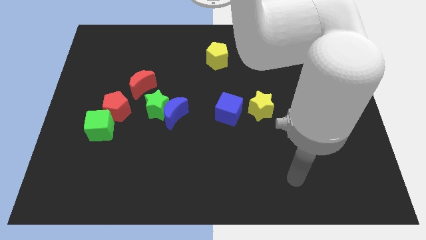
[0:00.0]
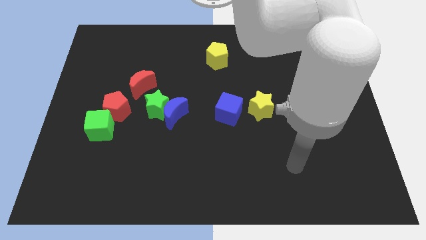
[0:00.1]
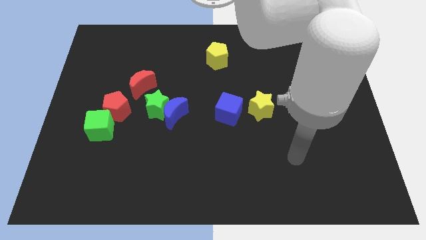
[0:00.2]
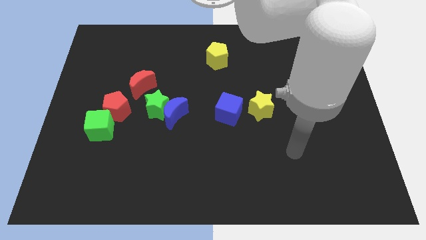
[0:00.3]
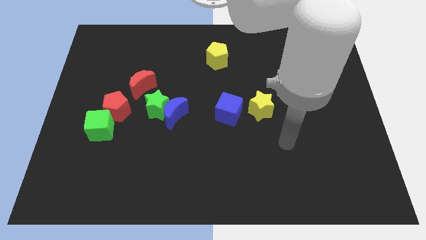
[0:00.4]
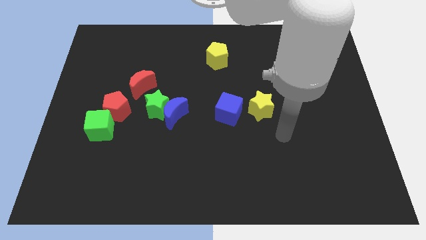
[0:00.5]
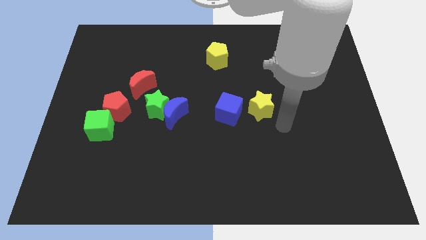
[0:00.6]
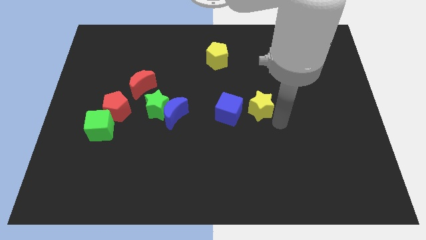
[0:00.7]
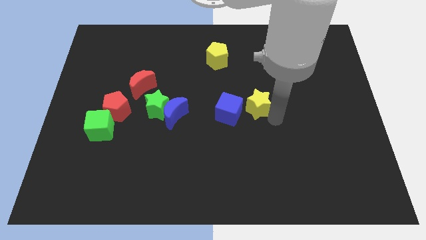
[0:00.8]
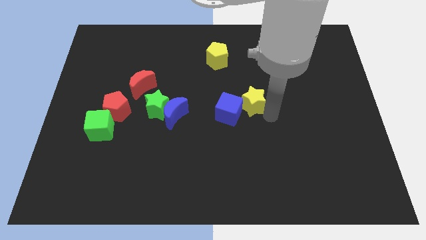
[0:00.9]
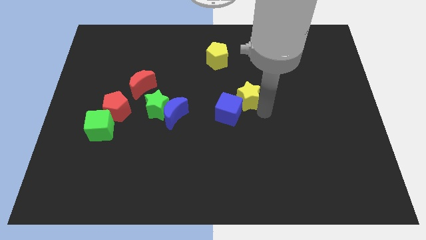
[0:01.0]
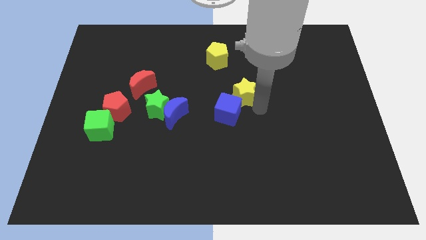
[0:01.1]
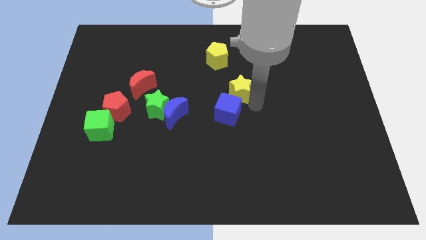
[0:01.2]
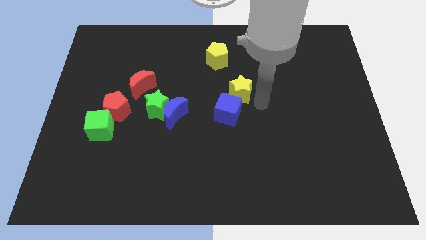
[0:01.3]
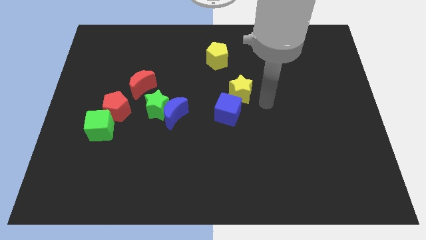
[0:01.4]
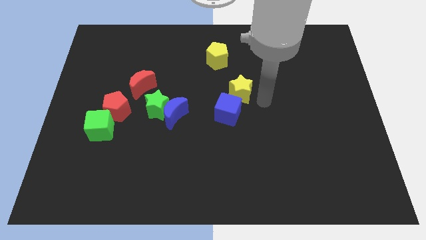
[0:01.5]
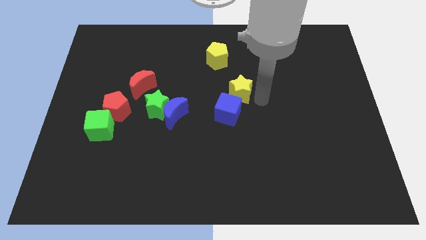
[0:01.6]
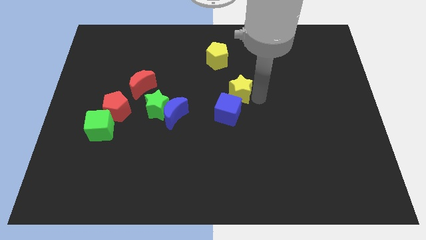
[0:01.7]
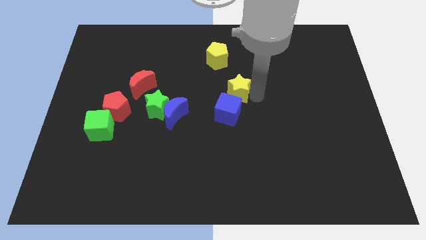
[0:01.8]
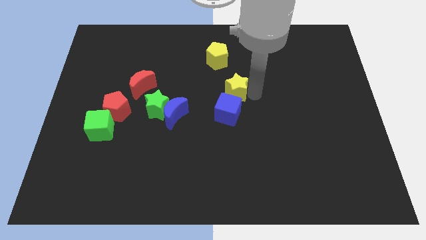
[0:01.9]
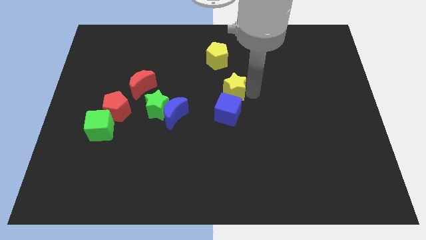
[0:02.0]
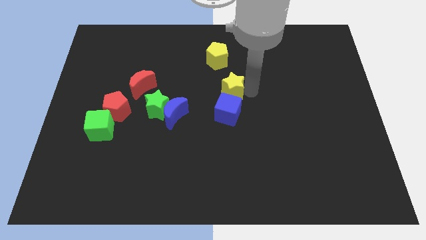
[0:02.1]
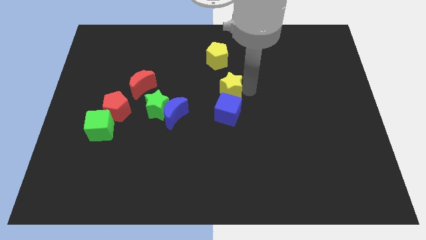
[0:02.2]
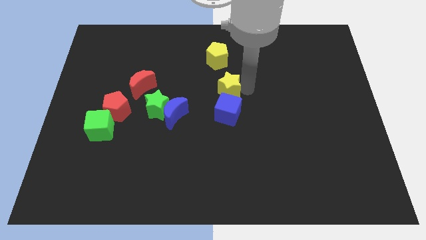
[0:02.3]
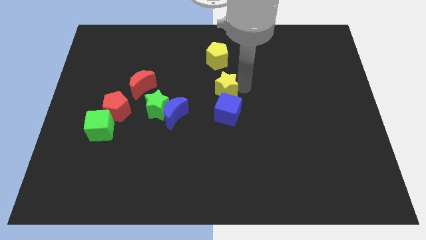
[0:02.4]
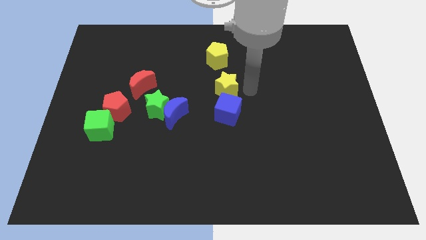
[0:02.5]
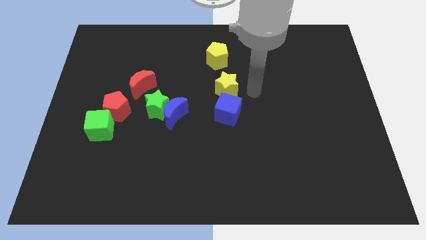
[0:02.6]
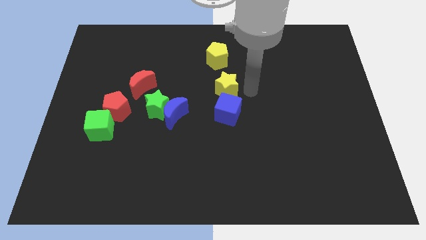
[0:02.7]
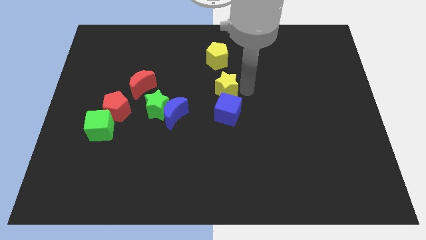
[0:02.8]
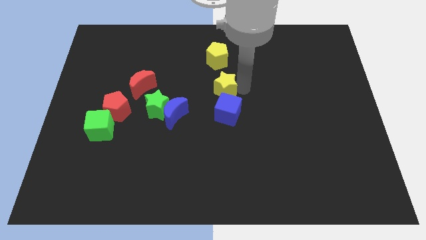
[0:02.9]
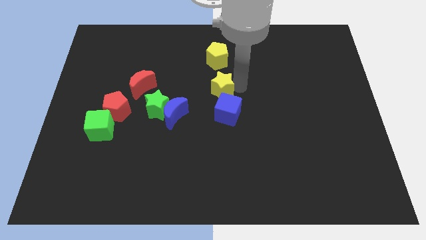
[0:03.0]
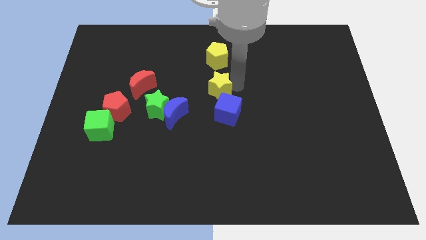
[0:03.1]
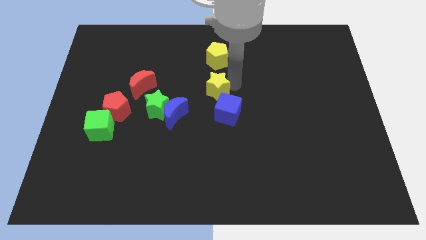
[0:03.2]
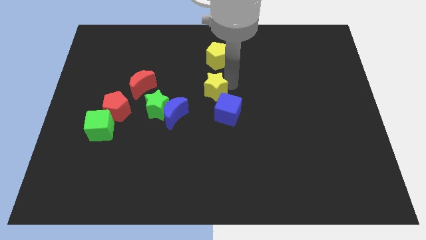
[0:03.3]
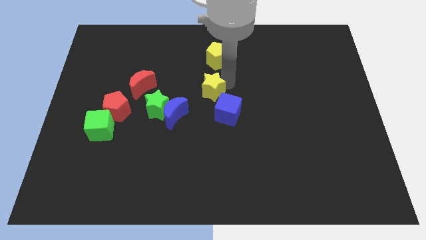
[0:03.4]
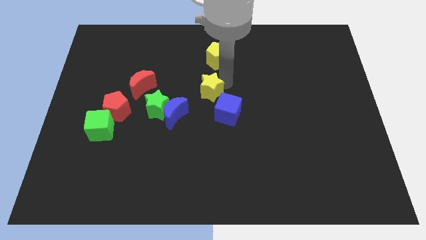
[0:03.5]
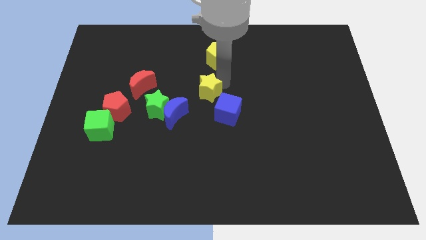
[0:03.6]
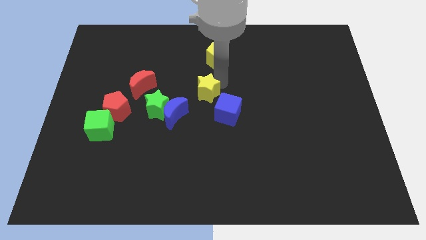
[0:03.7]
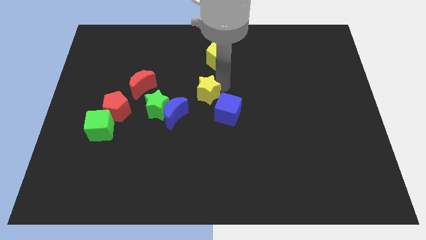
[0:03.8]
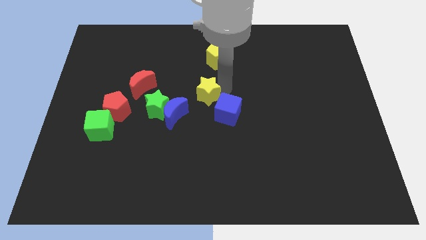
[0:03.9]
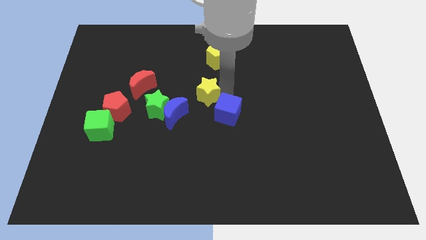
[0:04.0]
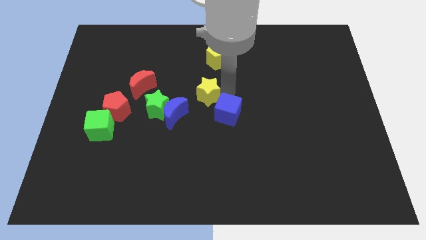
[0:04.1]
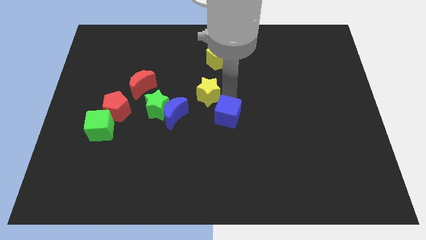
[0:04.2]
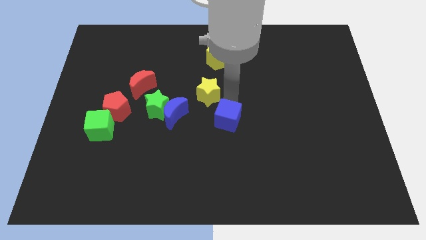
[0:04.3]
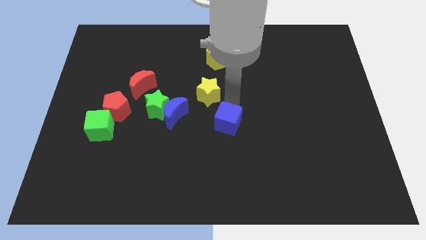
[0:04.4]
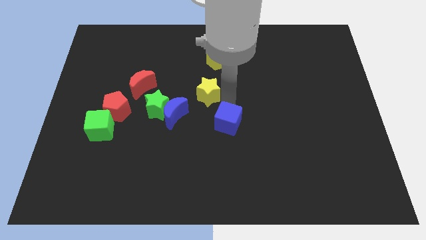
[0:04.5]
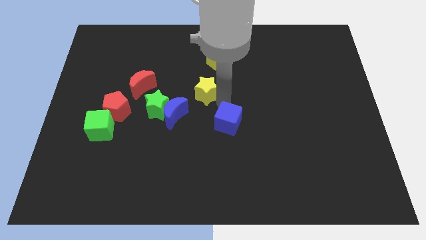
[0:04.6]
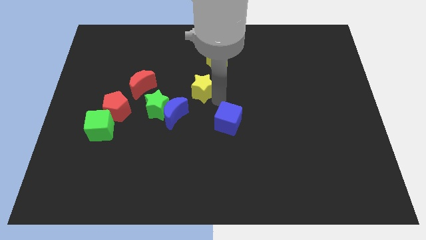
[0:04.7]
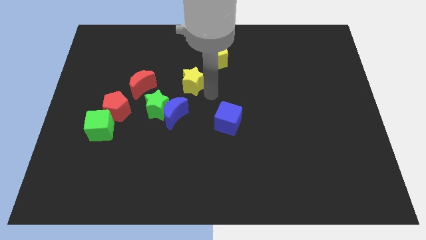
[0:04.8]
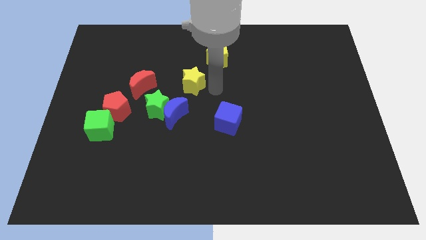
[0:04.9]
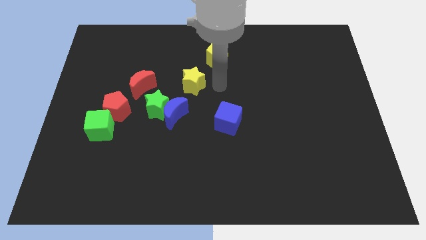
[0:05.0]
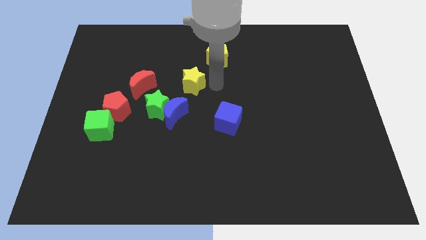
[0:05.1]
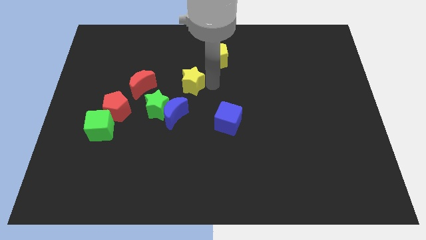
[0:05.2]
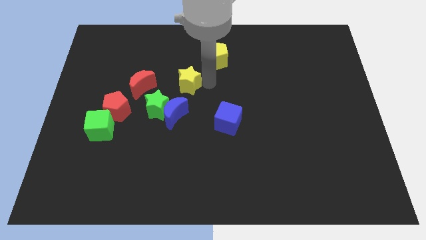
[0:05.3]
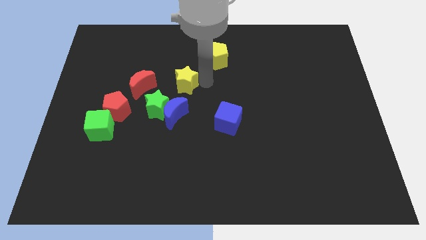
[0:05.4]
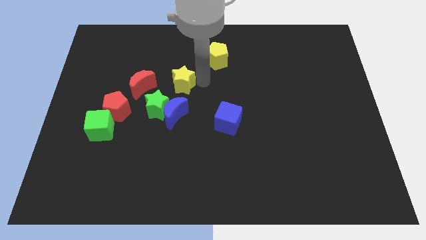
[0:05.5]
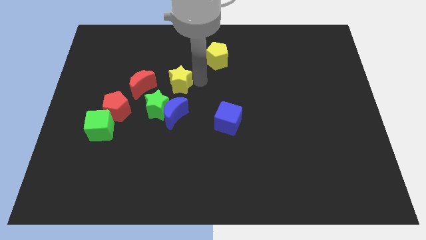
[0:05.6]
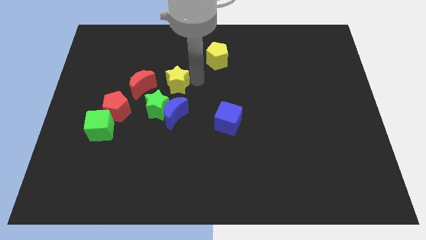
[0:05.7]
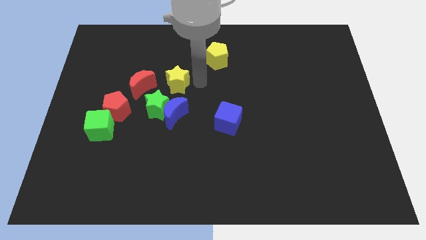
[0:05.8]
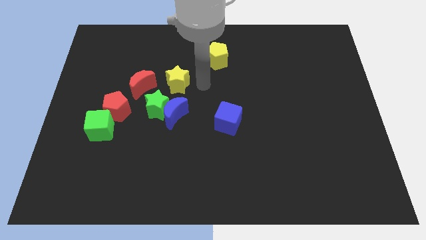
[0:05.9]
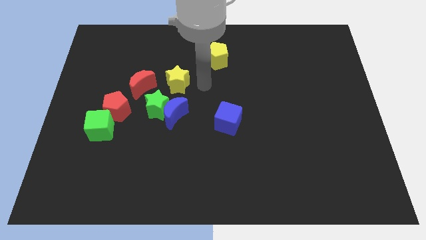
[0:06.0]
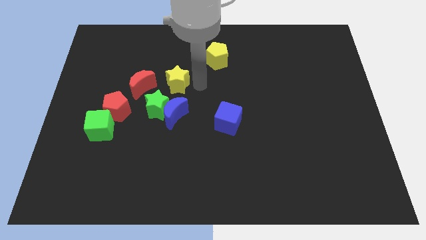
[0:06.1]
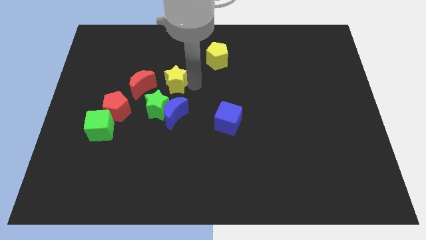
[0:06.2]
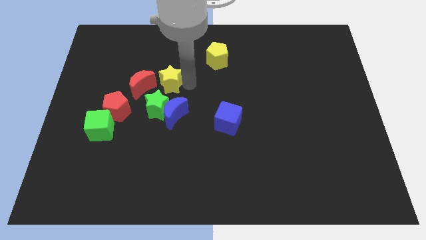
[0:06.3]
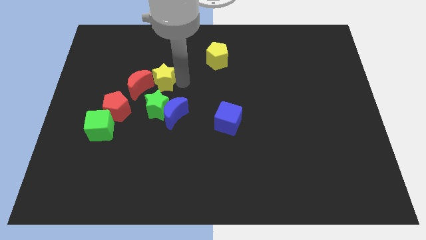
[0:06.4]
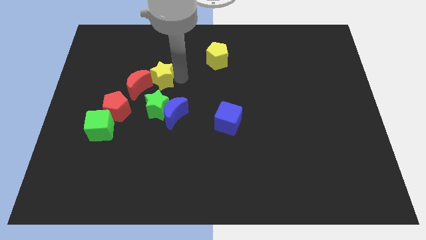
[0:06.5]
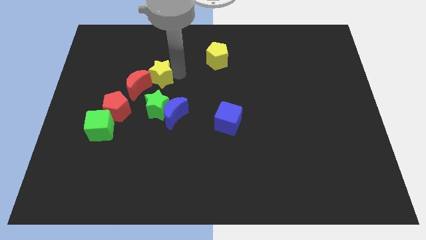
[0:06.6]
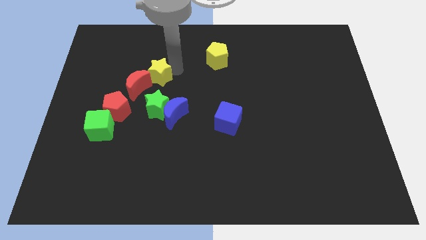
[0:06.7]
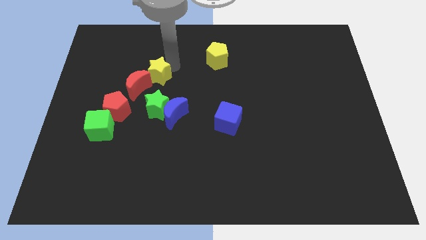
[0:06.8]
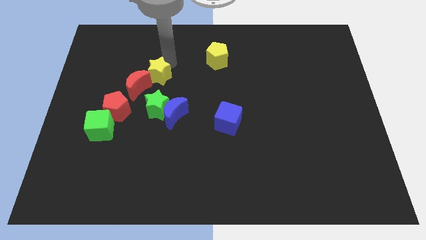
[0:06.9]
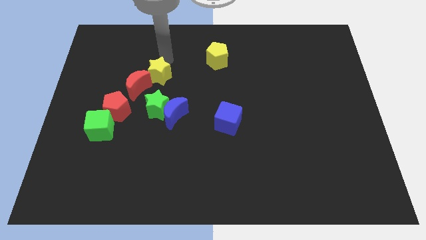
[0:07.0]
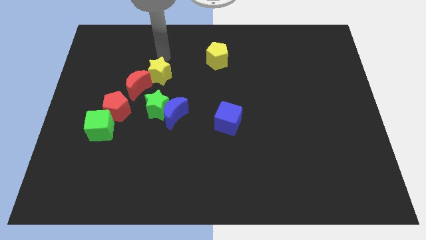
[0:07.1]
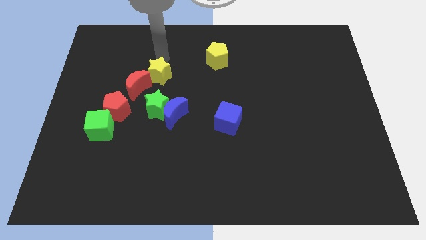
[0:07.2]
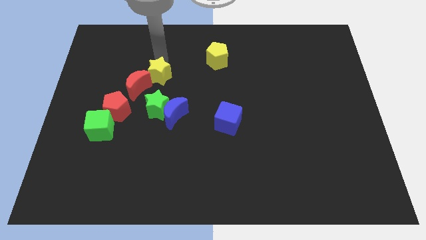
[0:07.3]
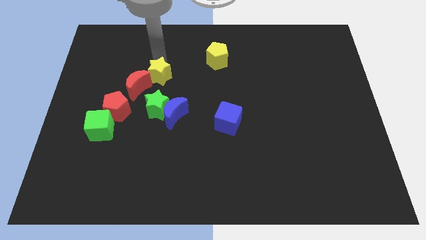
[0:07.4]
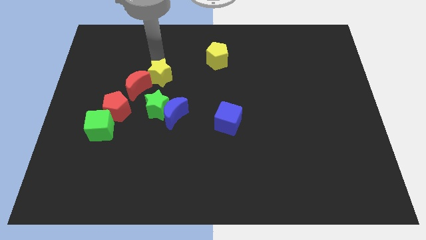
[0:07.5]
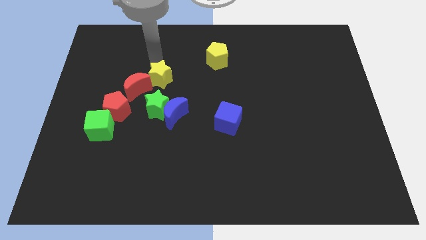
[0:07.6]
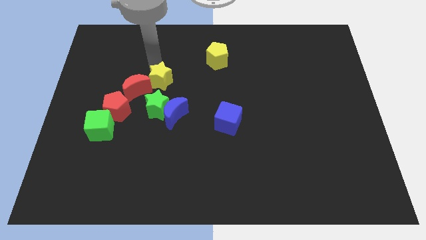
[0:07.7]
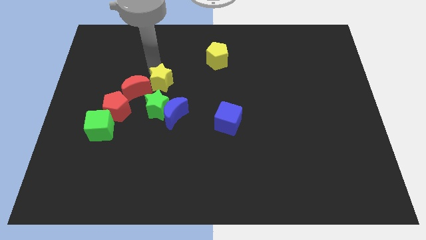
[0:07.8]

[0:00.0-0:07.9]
put the yellow star to the top left side of the blue moon
